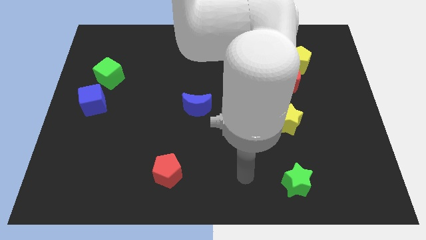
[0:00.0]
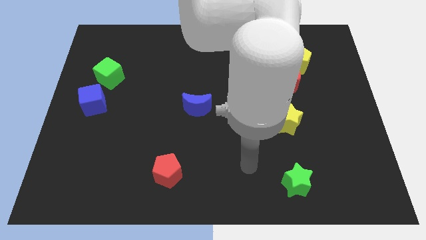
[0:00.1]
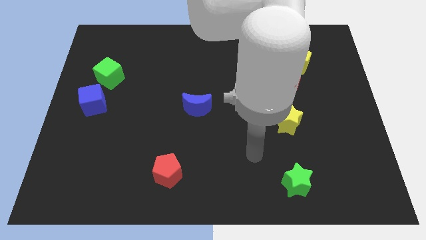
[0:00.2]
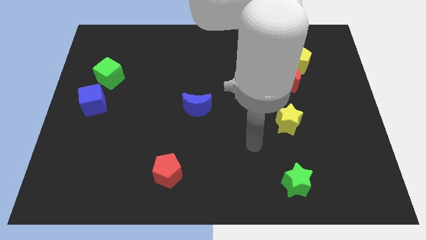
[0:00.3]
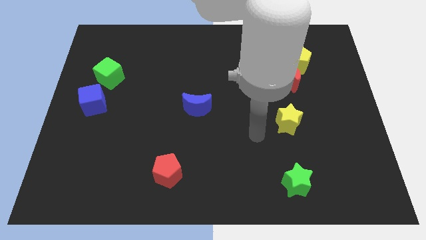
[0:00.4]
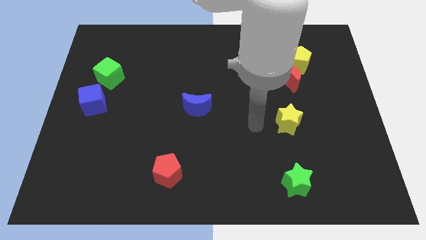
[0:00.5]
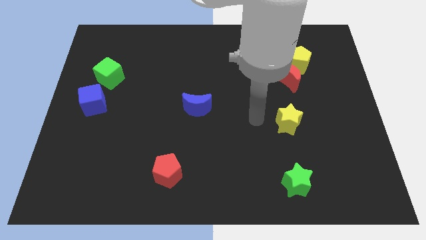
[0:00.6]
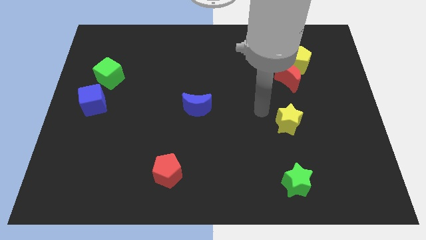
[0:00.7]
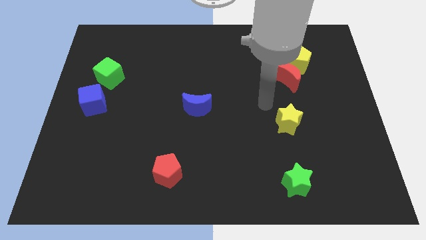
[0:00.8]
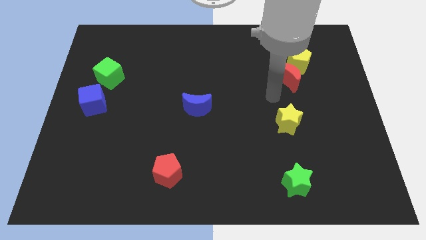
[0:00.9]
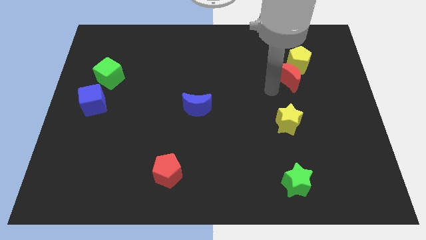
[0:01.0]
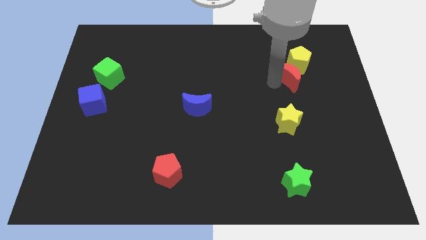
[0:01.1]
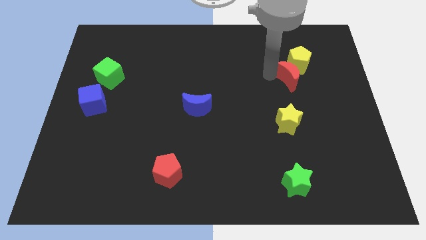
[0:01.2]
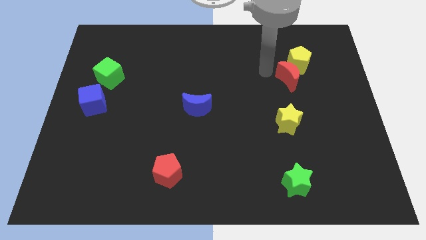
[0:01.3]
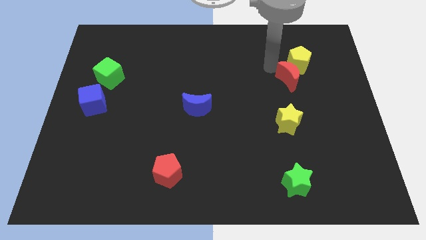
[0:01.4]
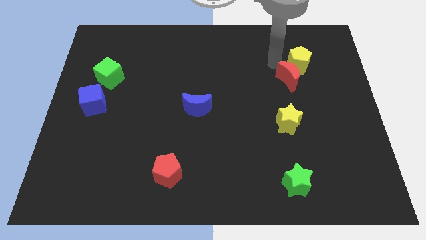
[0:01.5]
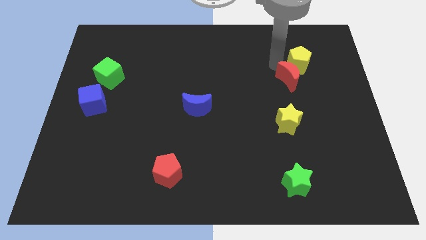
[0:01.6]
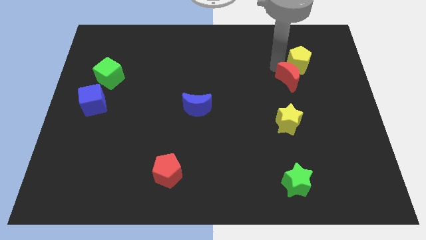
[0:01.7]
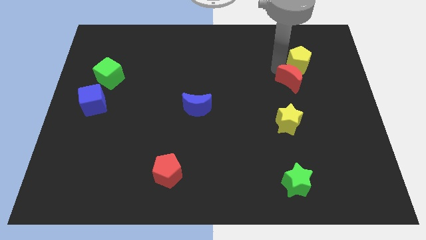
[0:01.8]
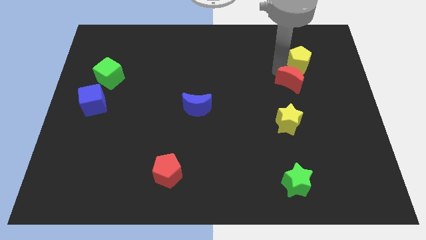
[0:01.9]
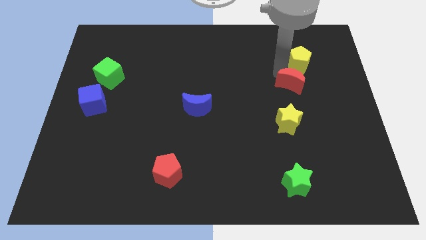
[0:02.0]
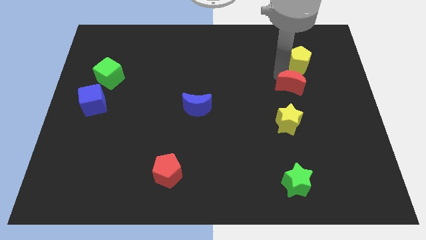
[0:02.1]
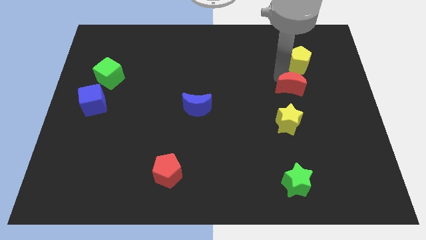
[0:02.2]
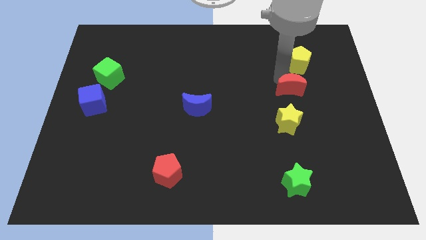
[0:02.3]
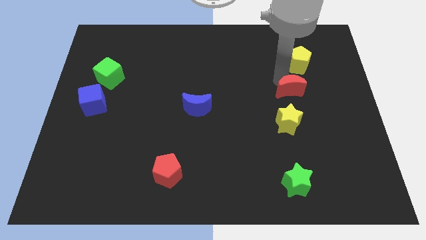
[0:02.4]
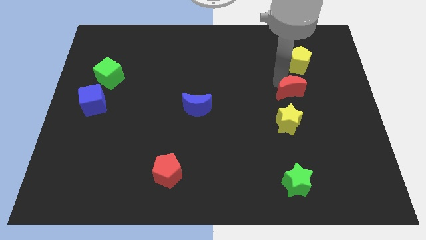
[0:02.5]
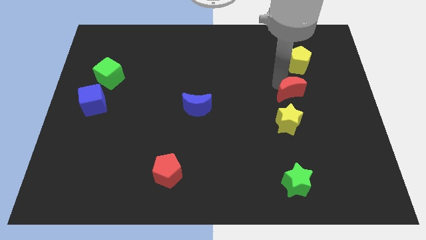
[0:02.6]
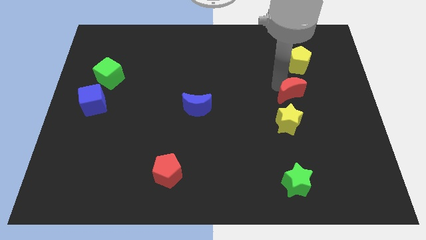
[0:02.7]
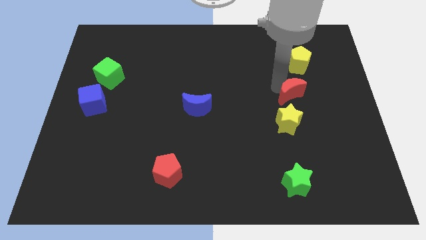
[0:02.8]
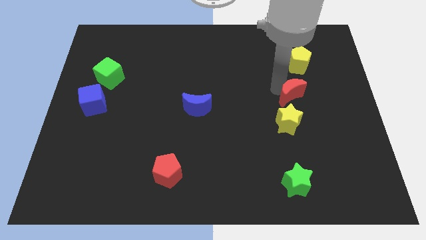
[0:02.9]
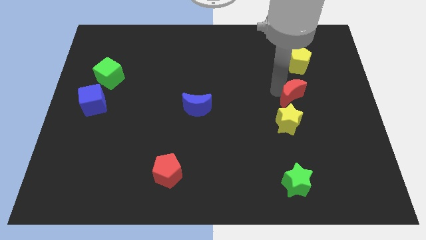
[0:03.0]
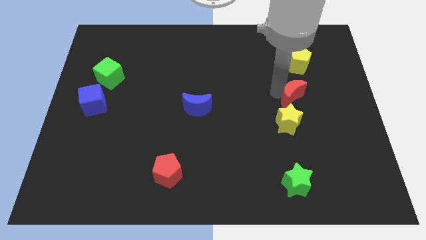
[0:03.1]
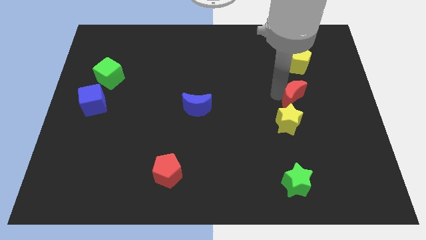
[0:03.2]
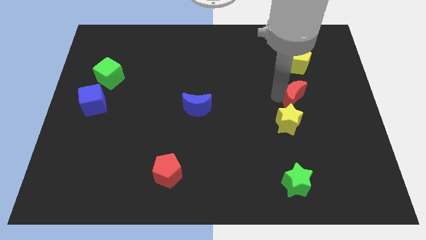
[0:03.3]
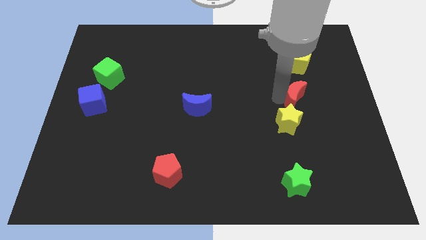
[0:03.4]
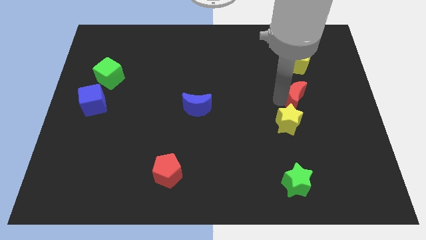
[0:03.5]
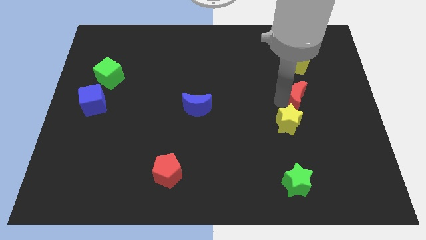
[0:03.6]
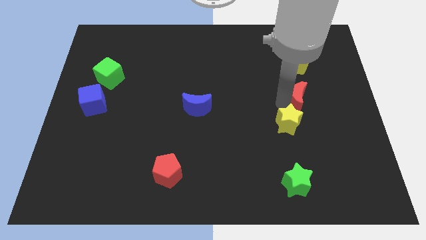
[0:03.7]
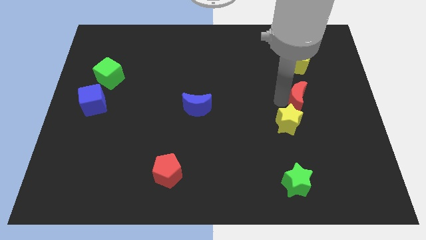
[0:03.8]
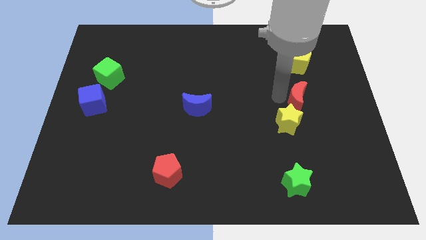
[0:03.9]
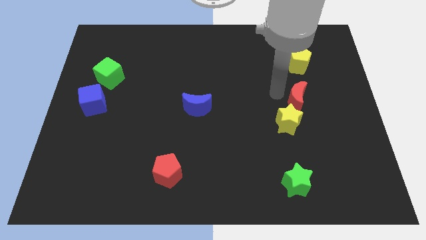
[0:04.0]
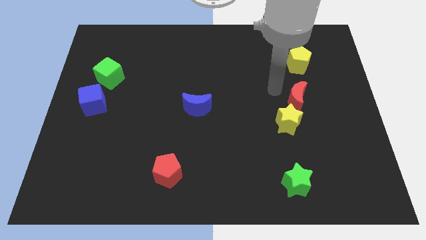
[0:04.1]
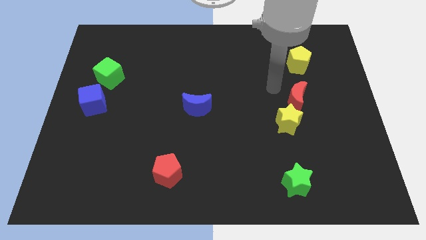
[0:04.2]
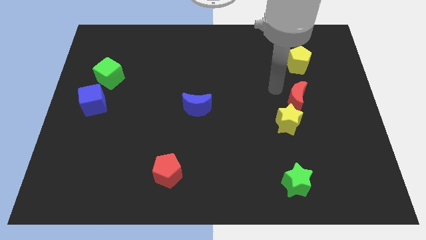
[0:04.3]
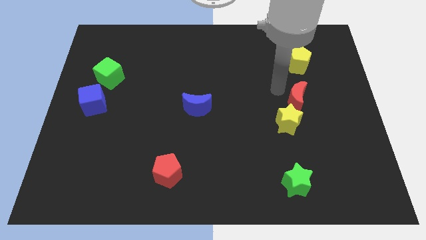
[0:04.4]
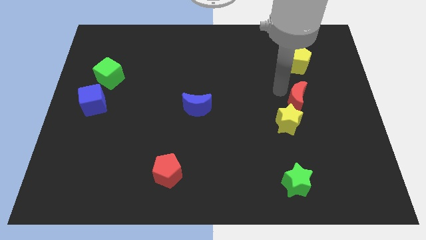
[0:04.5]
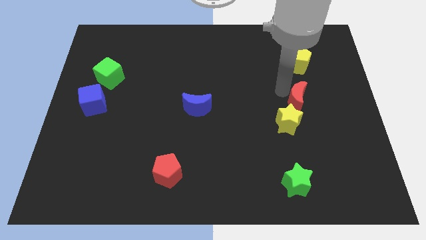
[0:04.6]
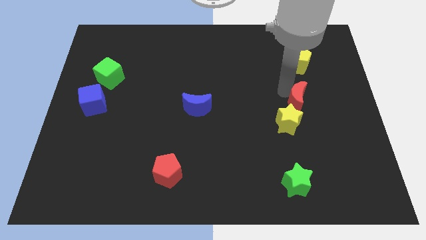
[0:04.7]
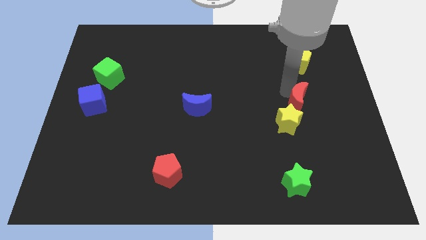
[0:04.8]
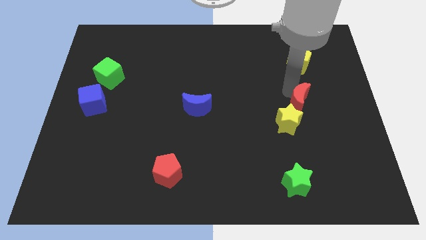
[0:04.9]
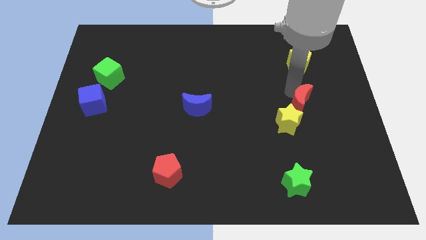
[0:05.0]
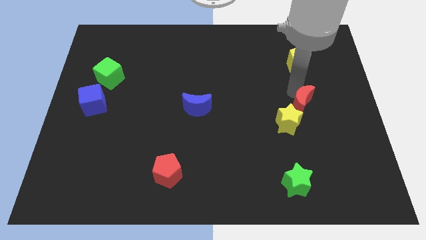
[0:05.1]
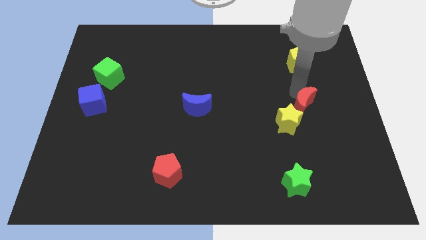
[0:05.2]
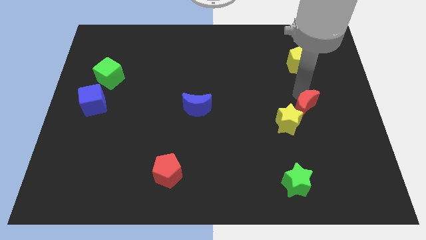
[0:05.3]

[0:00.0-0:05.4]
put the red moon right of the yellow star

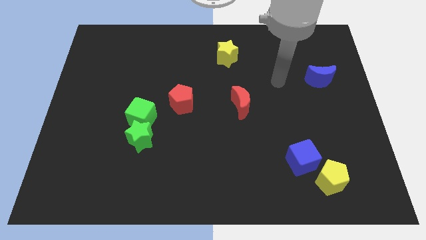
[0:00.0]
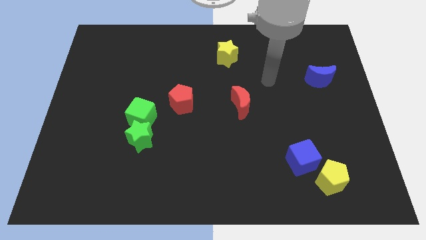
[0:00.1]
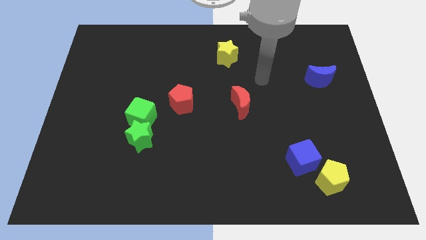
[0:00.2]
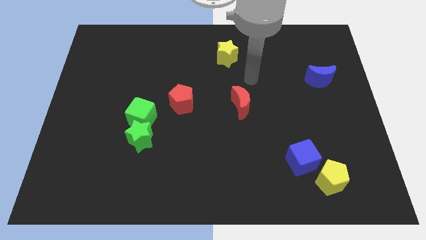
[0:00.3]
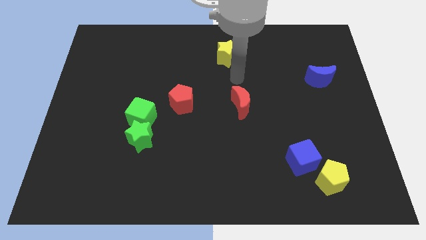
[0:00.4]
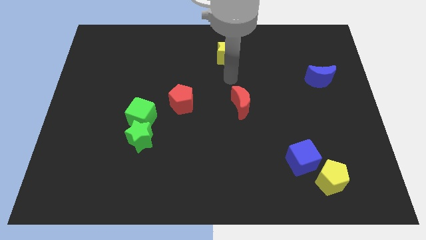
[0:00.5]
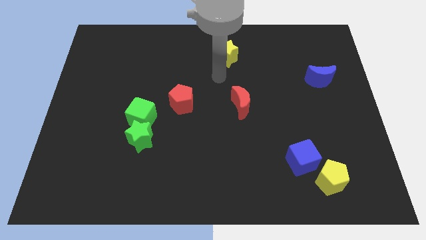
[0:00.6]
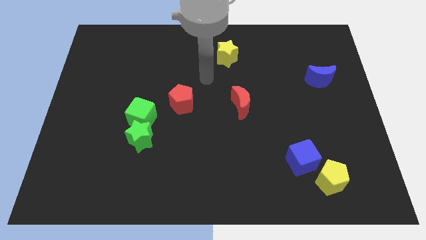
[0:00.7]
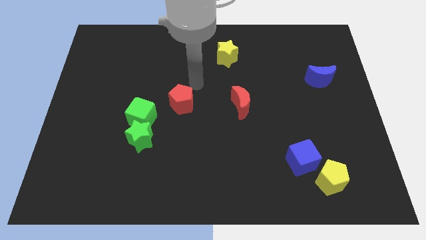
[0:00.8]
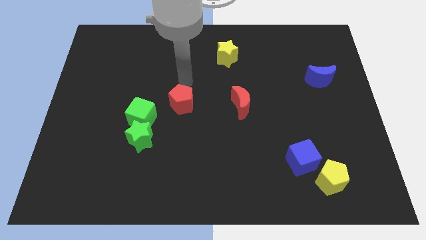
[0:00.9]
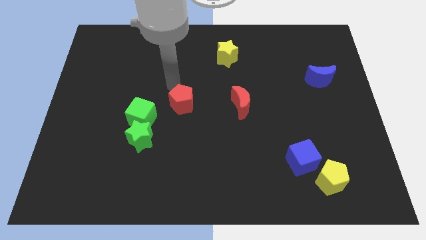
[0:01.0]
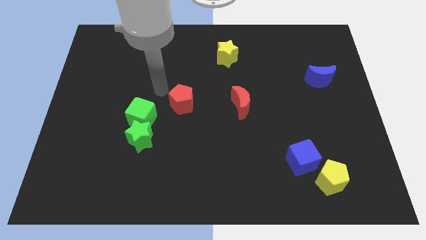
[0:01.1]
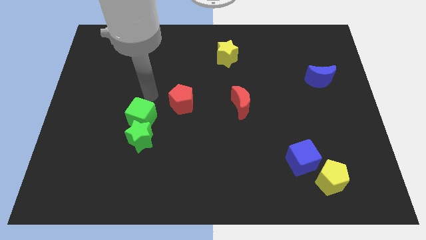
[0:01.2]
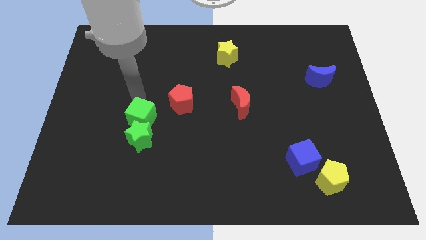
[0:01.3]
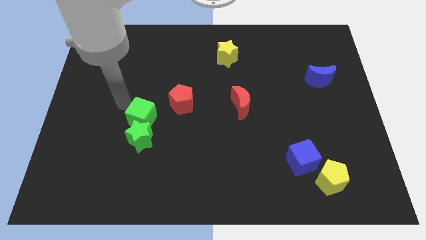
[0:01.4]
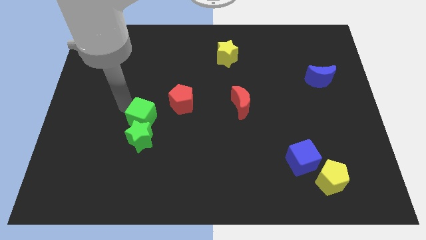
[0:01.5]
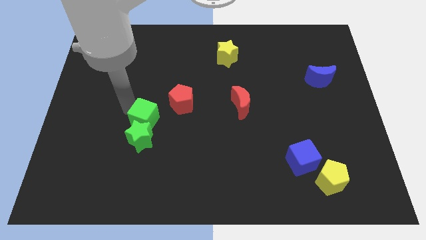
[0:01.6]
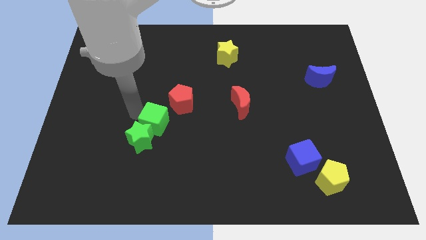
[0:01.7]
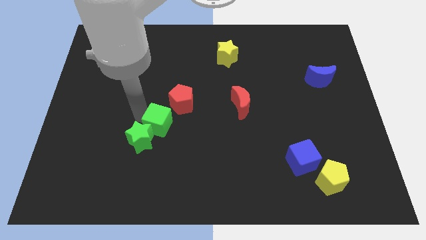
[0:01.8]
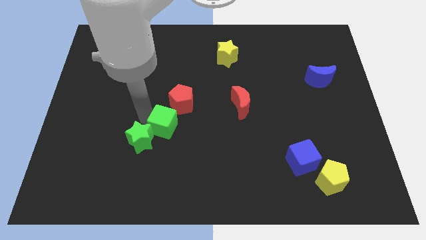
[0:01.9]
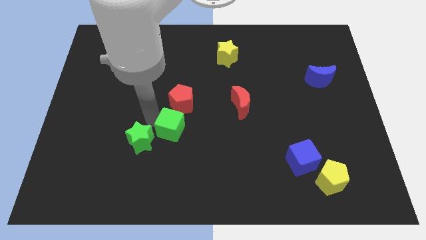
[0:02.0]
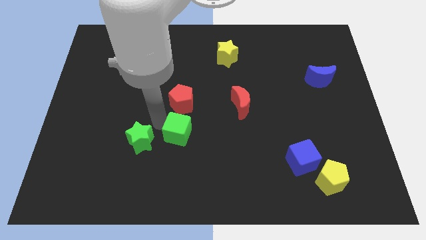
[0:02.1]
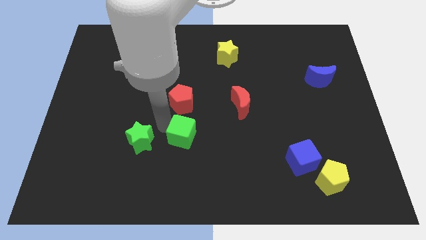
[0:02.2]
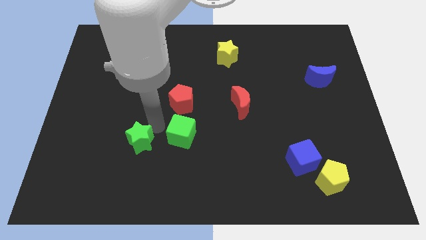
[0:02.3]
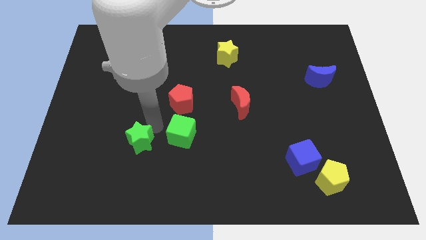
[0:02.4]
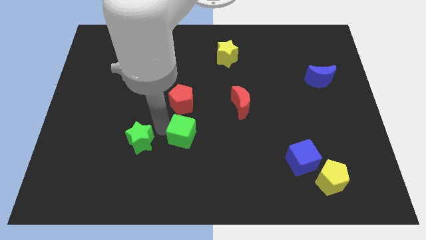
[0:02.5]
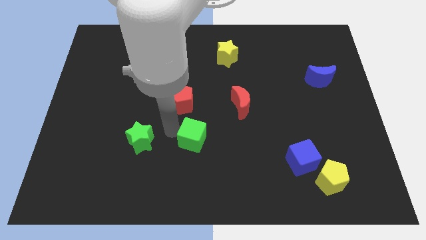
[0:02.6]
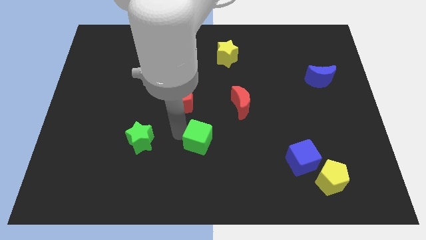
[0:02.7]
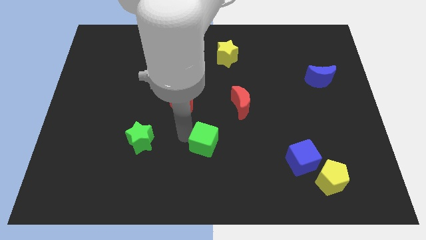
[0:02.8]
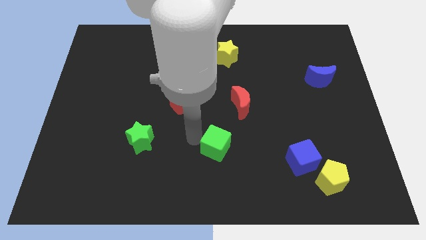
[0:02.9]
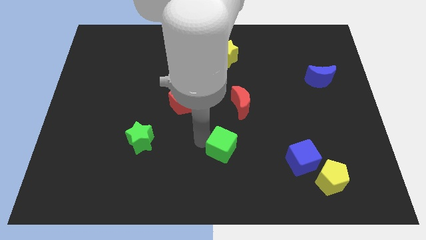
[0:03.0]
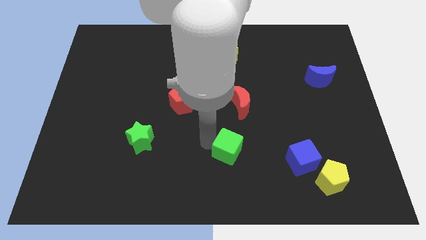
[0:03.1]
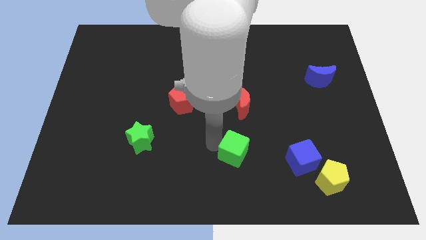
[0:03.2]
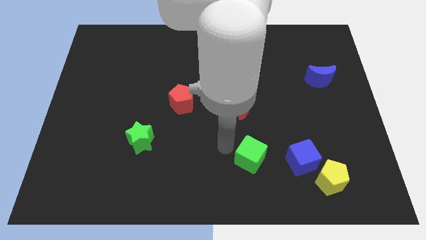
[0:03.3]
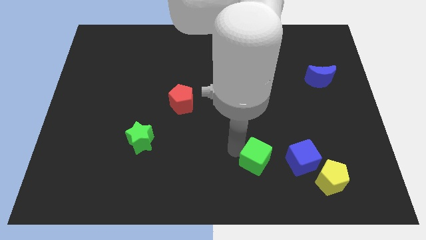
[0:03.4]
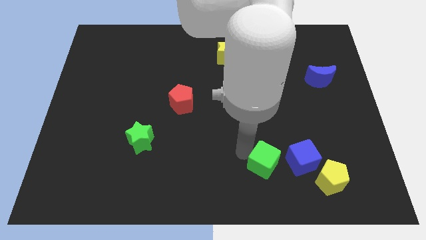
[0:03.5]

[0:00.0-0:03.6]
move the green cube left of the yellow pentagon
